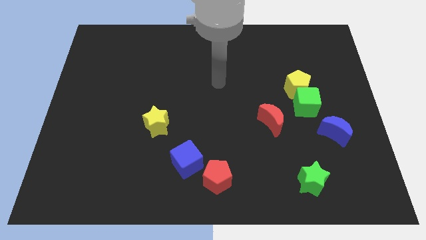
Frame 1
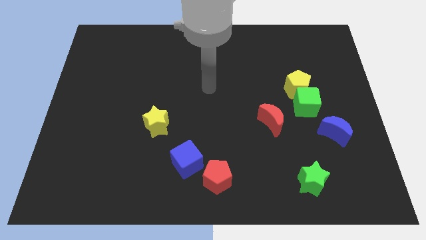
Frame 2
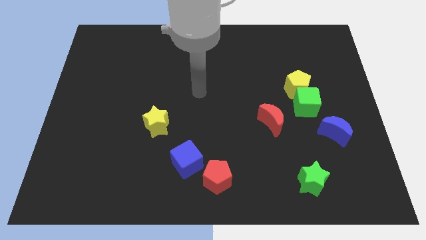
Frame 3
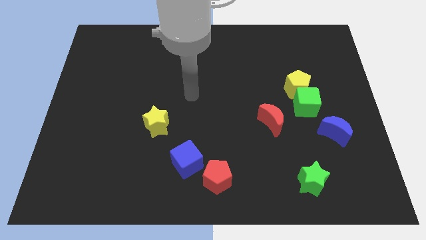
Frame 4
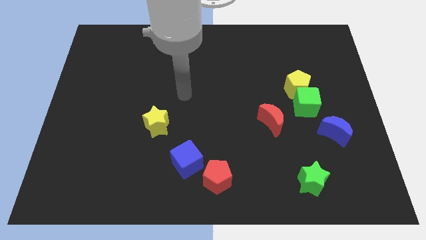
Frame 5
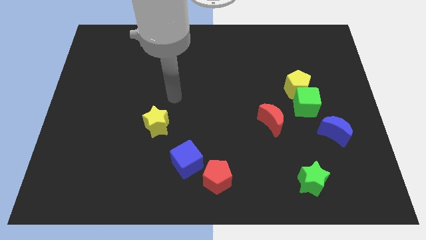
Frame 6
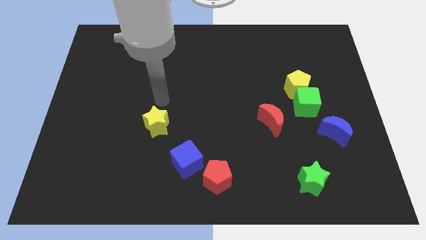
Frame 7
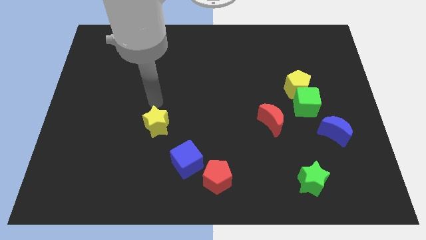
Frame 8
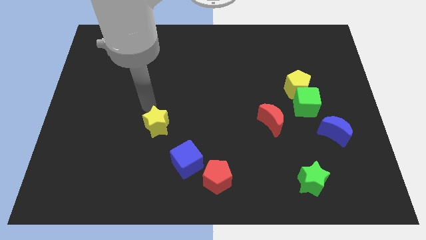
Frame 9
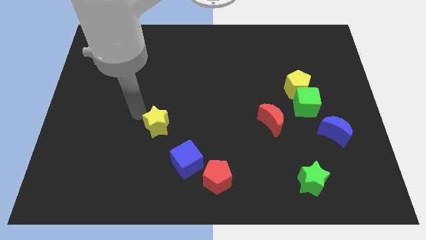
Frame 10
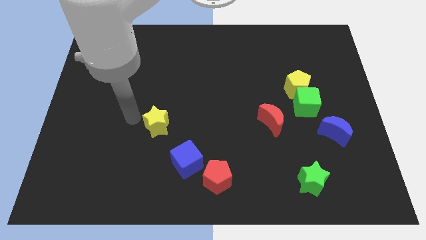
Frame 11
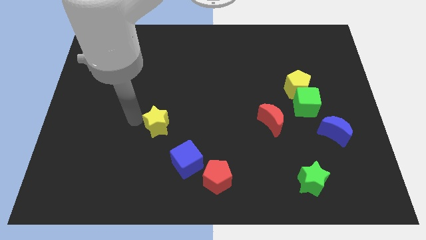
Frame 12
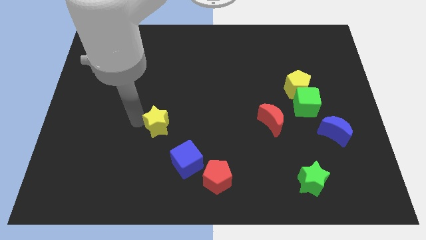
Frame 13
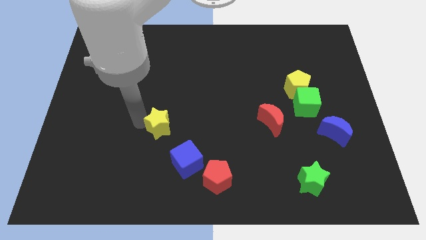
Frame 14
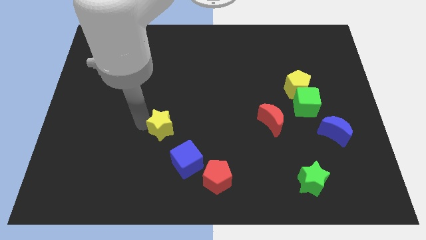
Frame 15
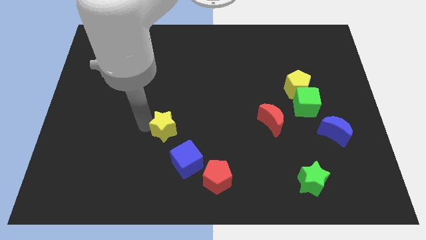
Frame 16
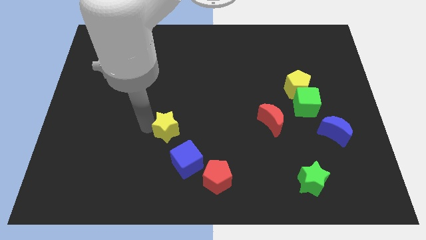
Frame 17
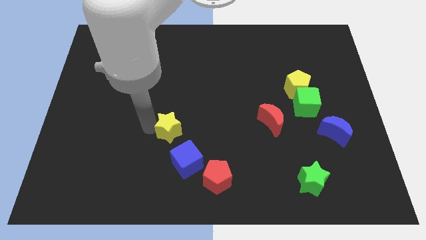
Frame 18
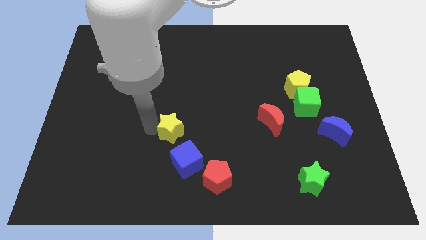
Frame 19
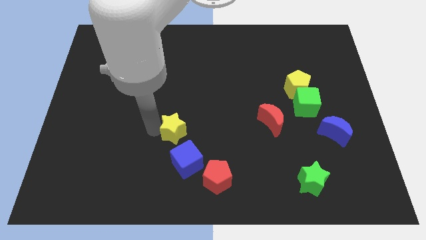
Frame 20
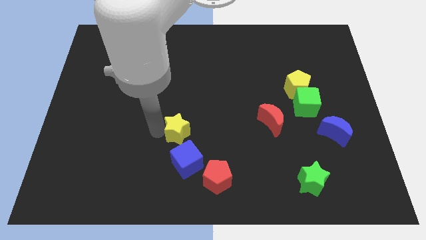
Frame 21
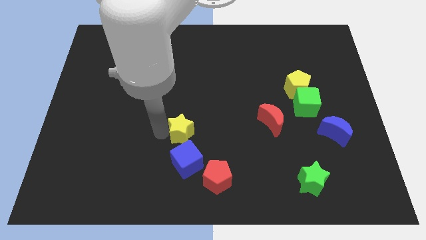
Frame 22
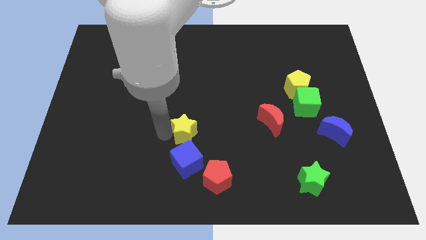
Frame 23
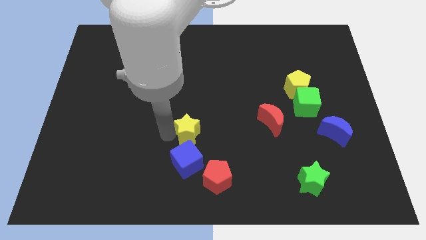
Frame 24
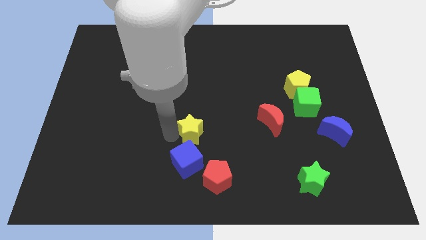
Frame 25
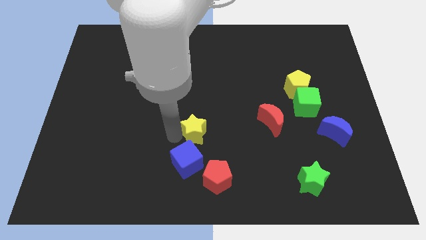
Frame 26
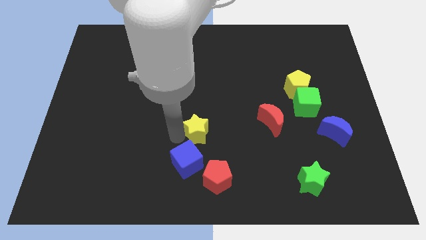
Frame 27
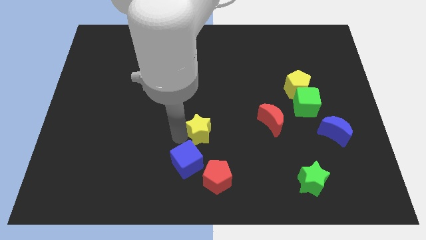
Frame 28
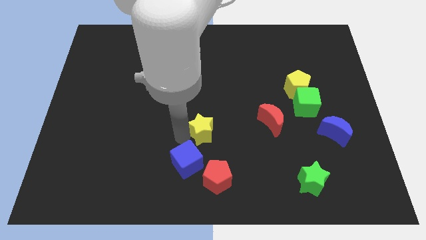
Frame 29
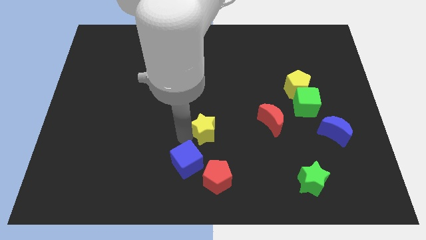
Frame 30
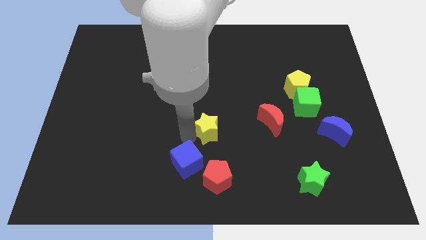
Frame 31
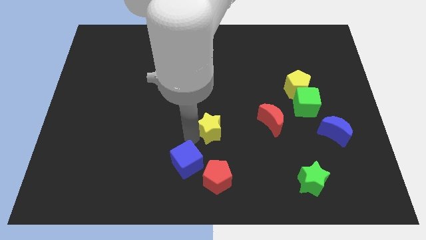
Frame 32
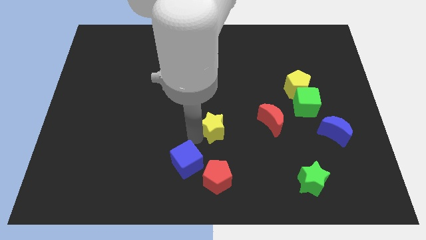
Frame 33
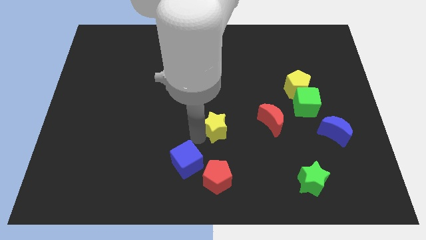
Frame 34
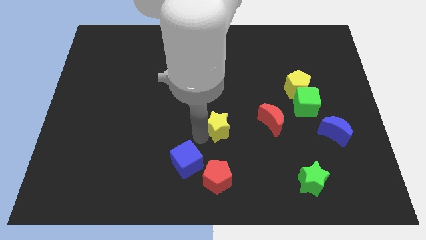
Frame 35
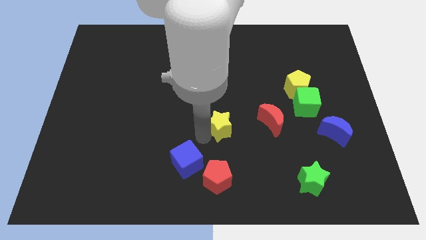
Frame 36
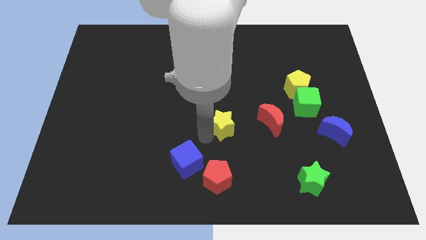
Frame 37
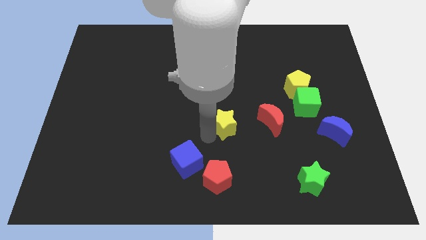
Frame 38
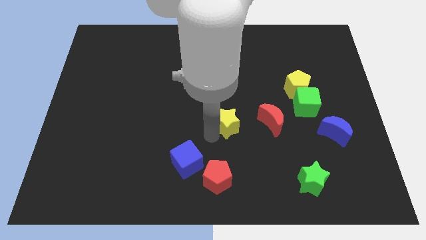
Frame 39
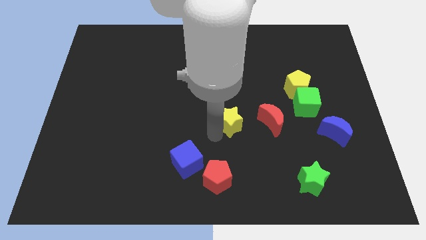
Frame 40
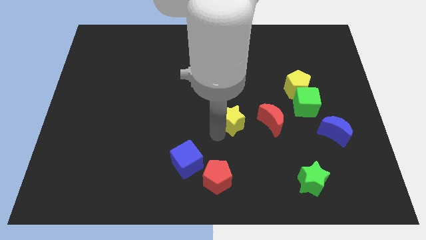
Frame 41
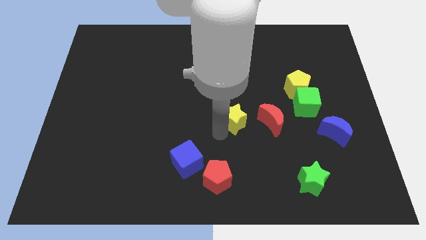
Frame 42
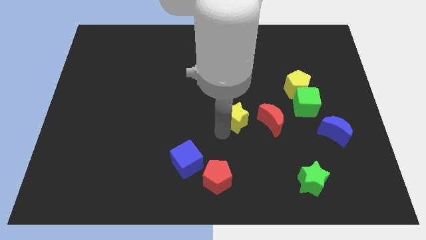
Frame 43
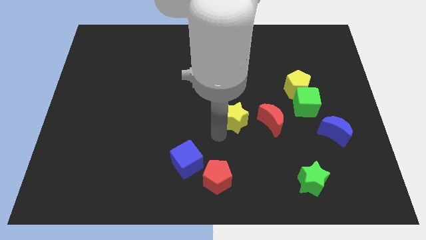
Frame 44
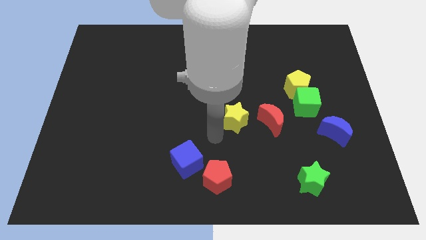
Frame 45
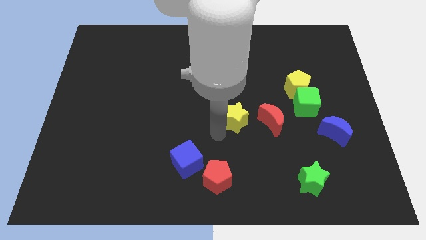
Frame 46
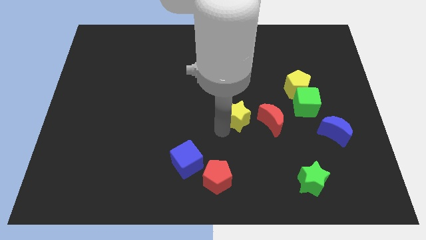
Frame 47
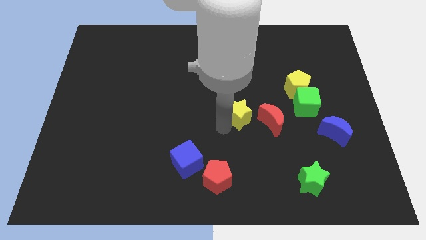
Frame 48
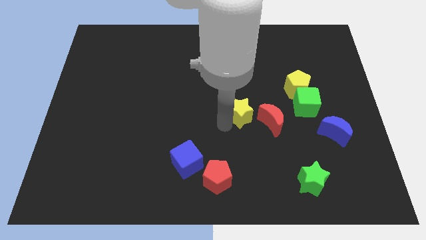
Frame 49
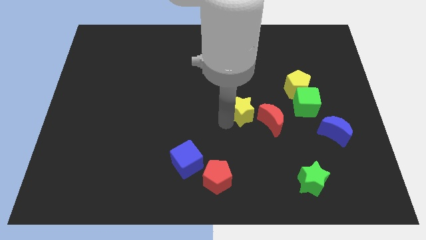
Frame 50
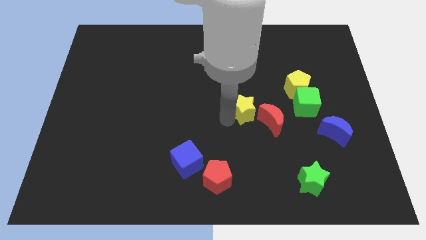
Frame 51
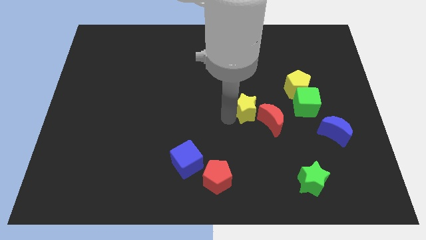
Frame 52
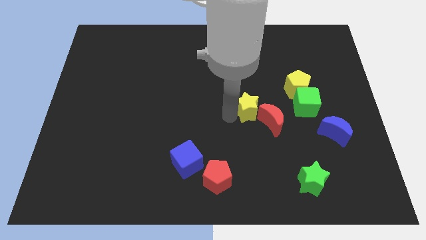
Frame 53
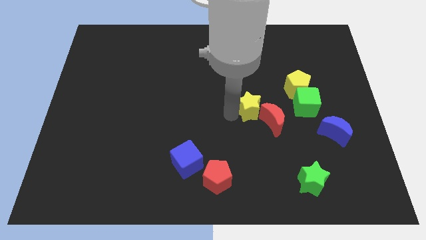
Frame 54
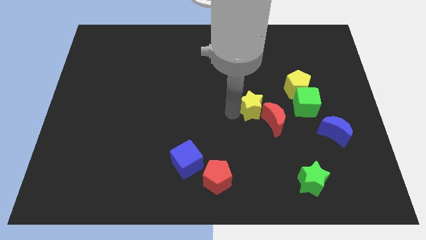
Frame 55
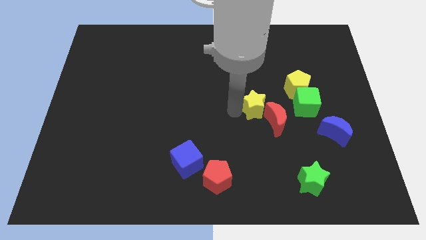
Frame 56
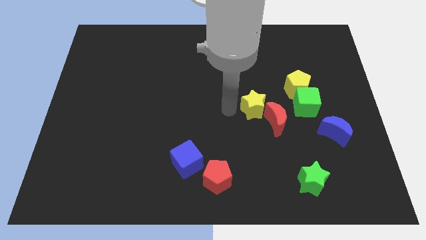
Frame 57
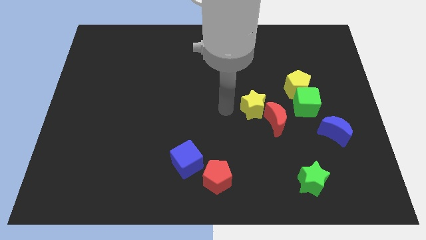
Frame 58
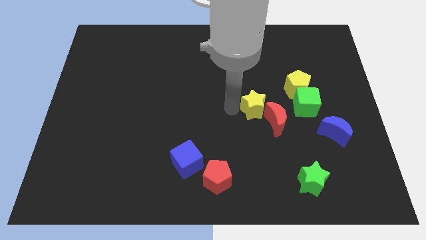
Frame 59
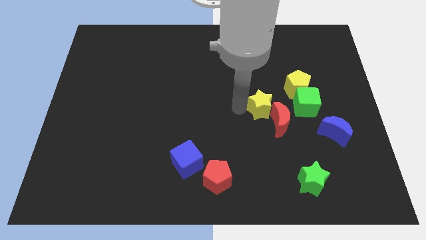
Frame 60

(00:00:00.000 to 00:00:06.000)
slide the yellow star diagonally down and to the left of the yellow pentagon

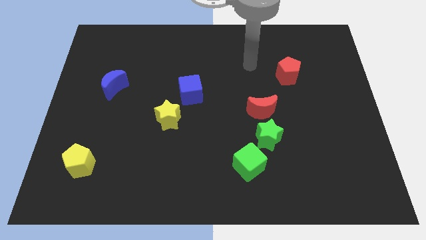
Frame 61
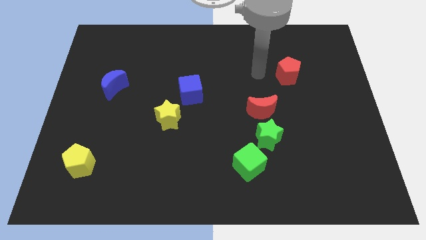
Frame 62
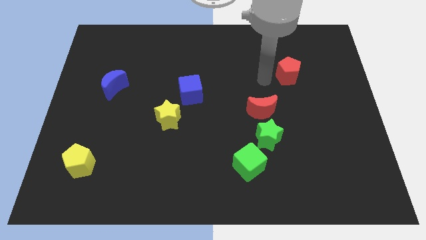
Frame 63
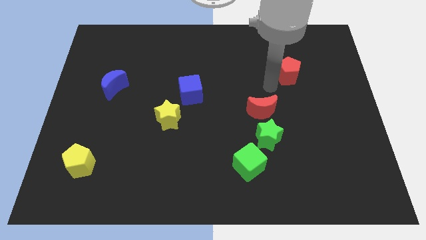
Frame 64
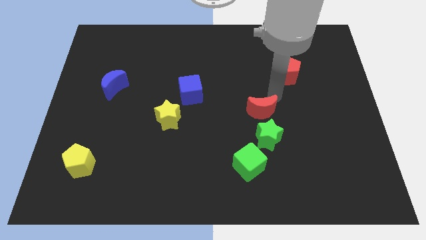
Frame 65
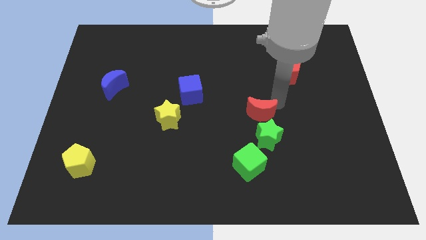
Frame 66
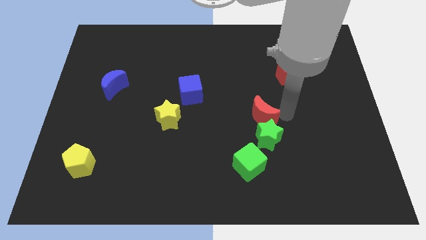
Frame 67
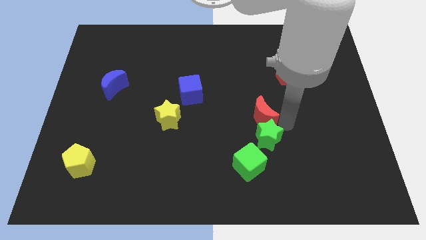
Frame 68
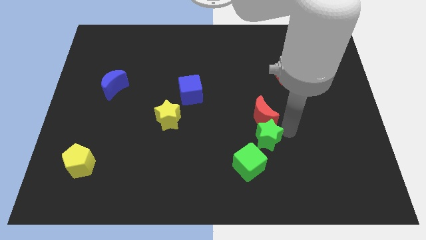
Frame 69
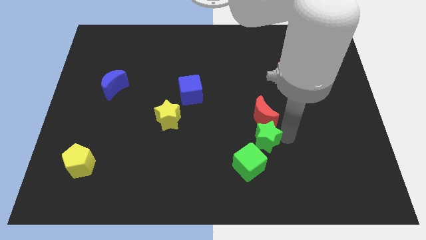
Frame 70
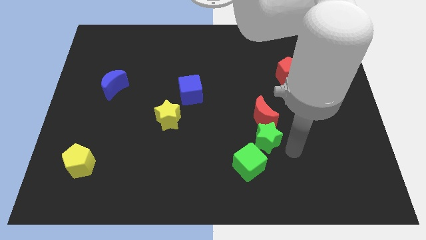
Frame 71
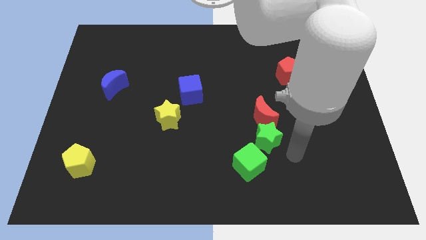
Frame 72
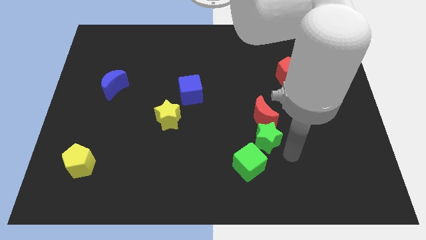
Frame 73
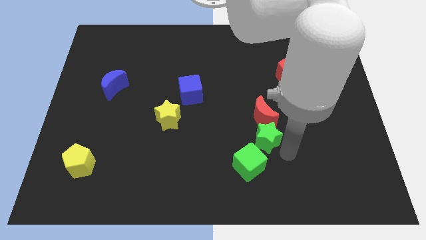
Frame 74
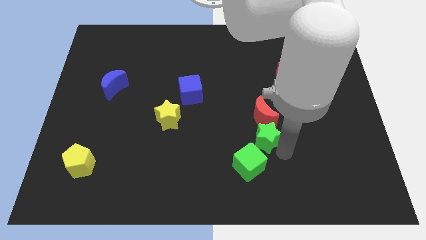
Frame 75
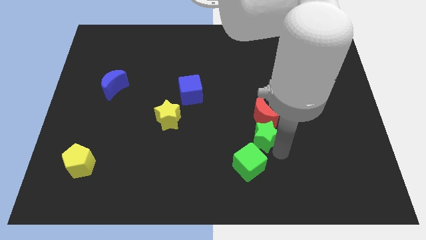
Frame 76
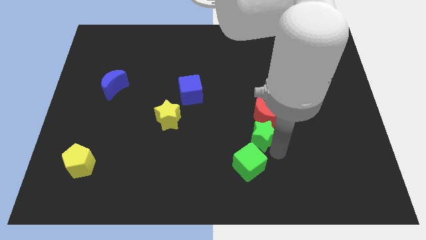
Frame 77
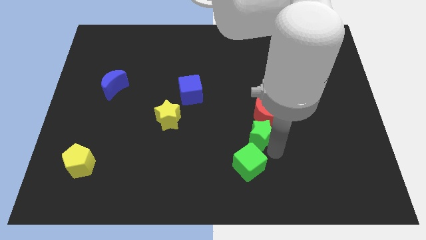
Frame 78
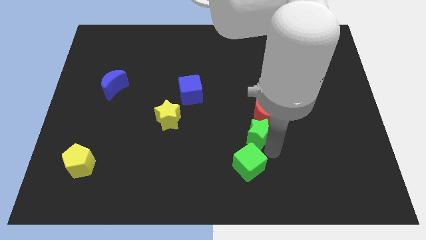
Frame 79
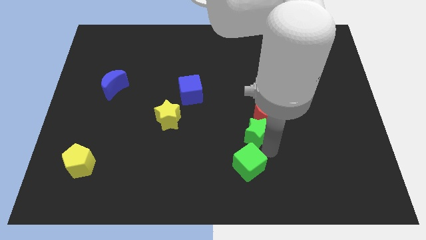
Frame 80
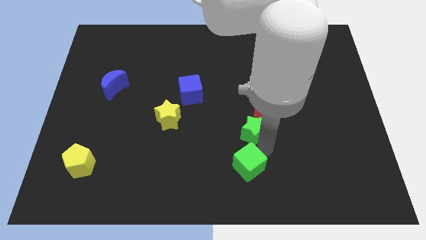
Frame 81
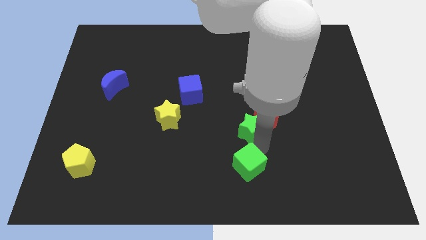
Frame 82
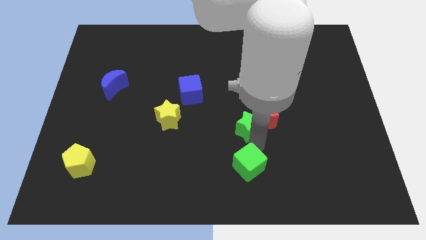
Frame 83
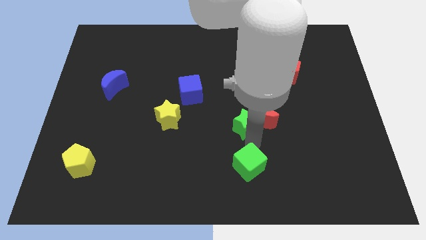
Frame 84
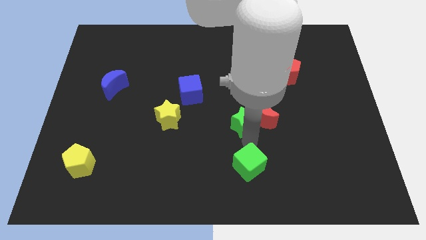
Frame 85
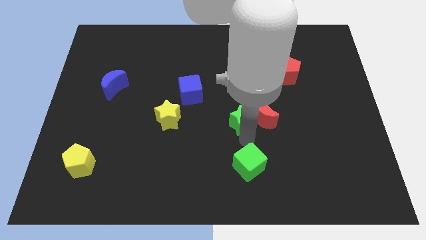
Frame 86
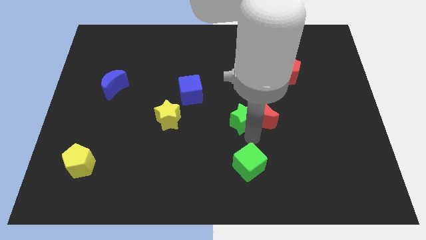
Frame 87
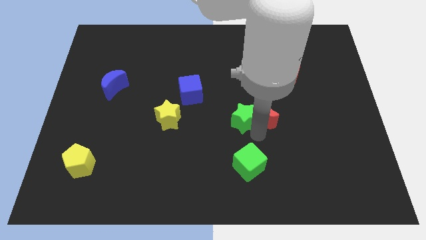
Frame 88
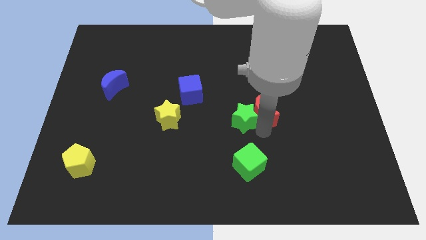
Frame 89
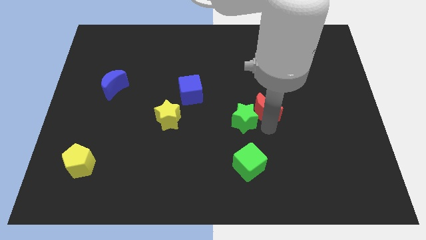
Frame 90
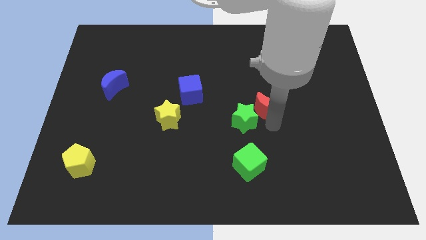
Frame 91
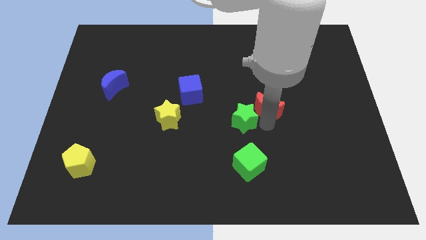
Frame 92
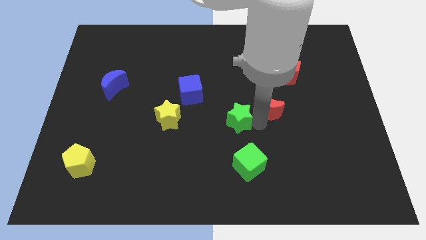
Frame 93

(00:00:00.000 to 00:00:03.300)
put the green star to the right of the yellow star
